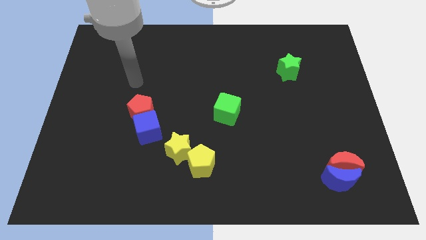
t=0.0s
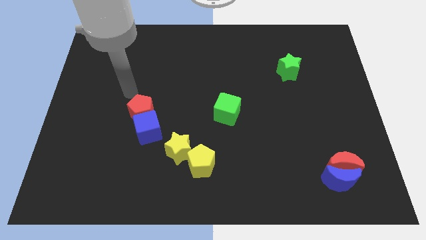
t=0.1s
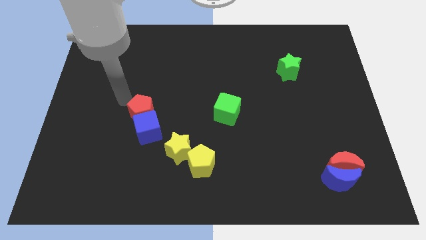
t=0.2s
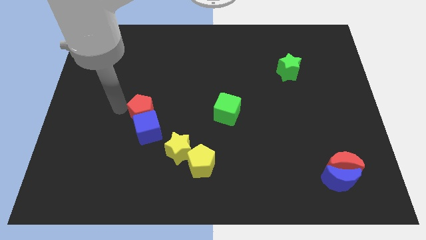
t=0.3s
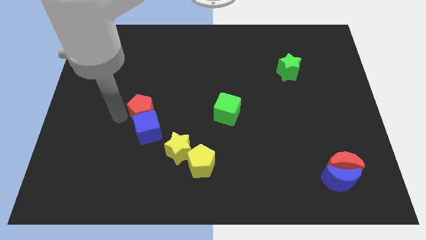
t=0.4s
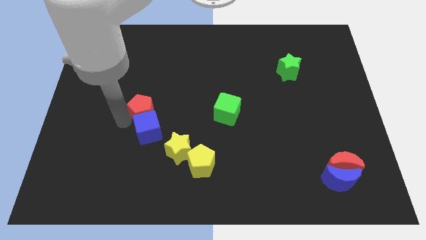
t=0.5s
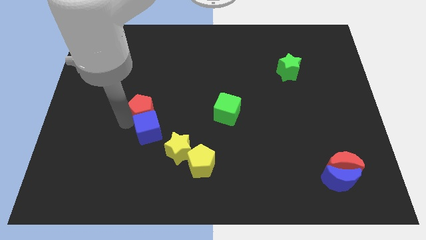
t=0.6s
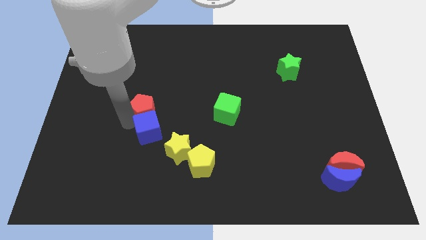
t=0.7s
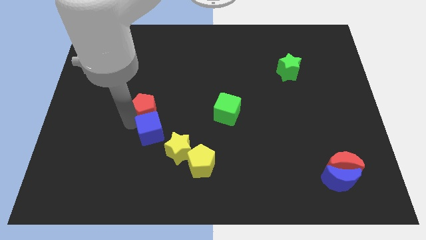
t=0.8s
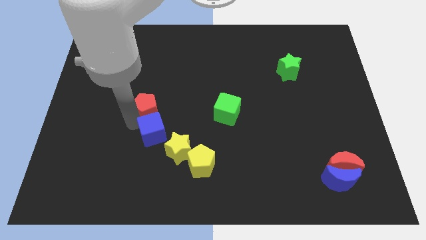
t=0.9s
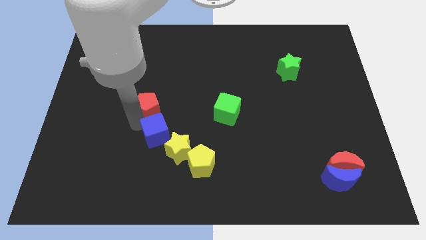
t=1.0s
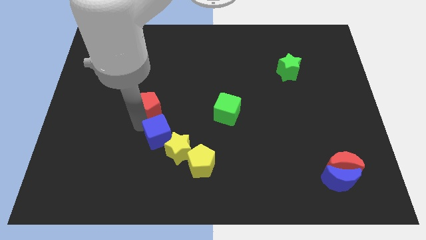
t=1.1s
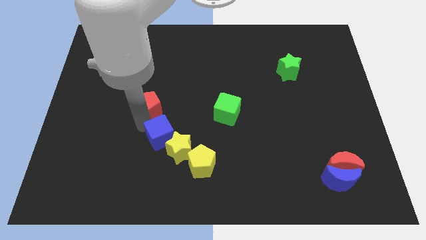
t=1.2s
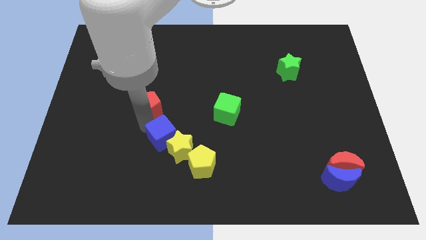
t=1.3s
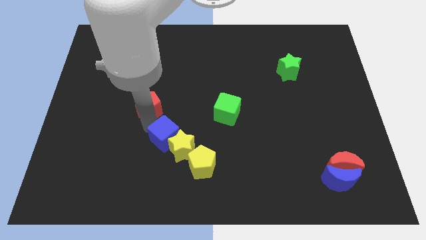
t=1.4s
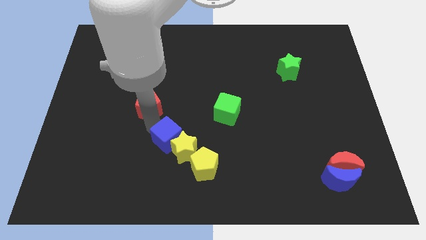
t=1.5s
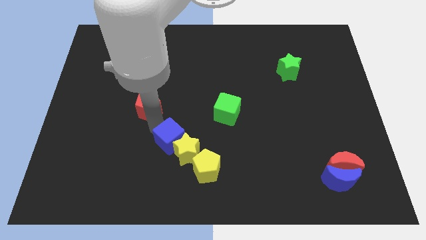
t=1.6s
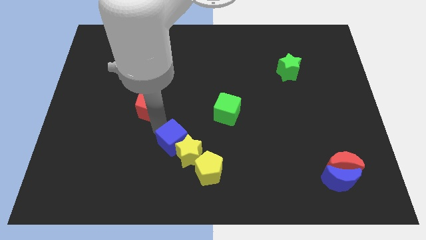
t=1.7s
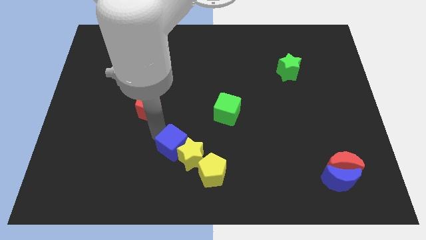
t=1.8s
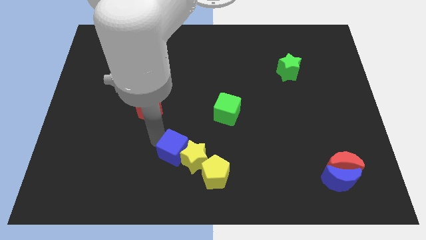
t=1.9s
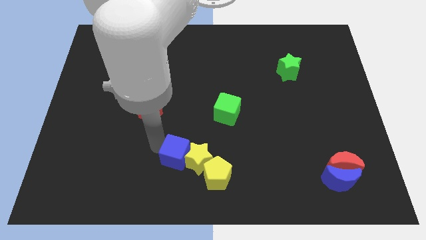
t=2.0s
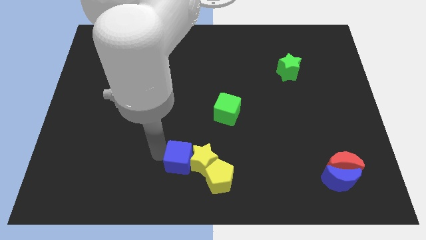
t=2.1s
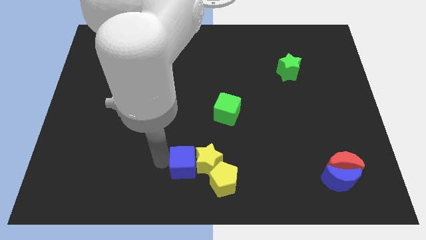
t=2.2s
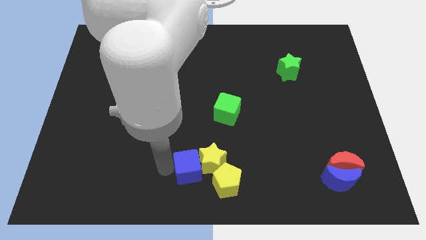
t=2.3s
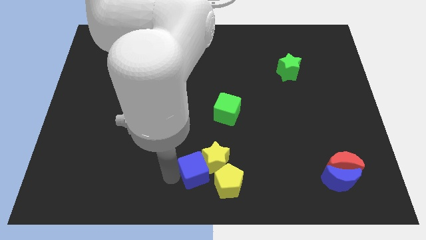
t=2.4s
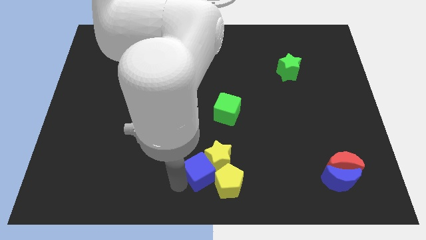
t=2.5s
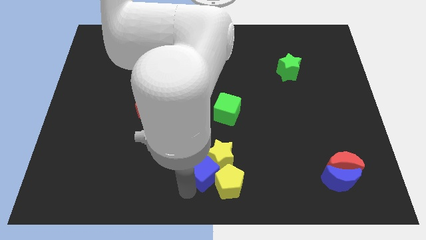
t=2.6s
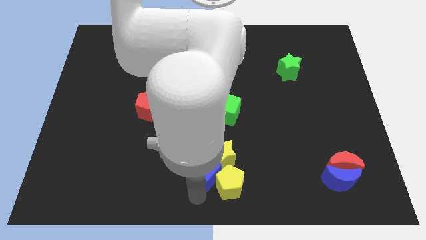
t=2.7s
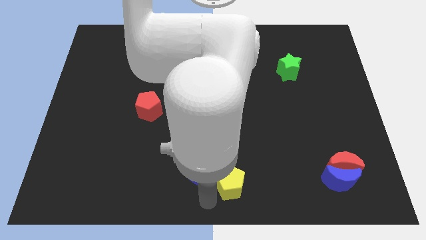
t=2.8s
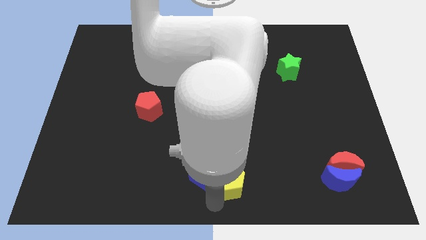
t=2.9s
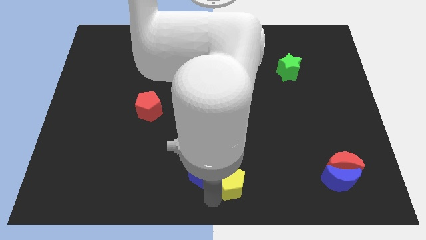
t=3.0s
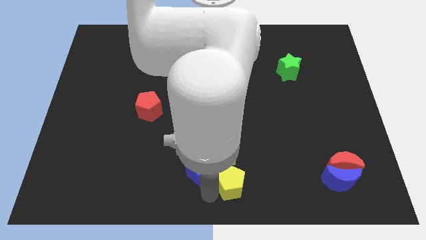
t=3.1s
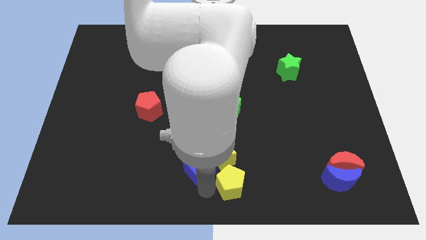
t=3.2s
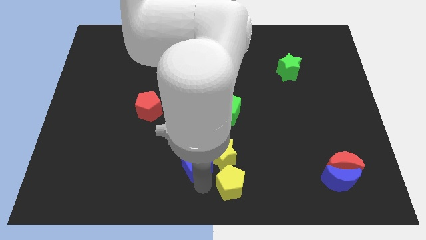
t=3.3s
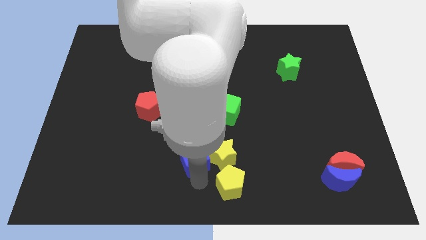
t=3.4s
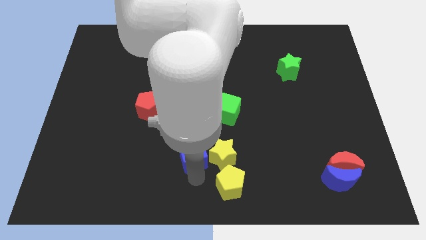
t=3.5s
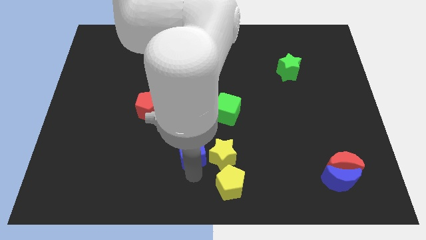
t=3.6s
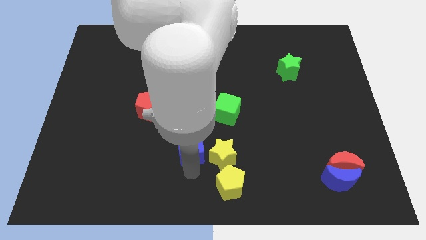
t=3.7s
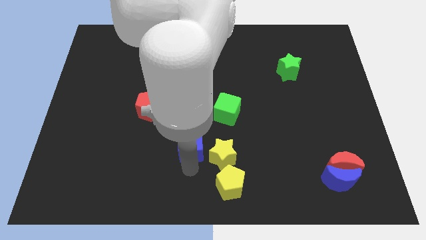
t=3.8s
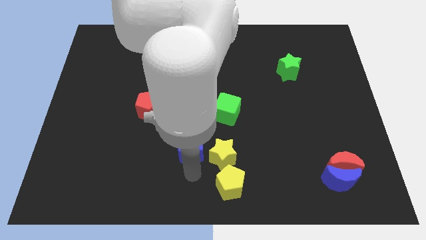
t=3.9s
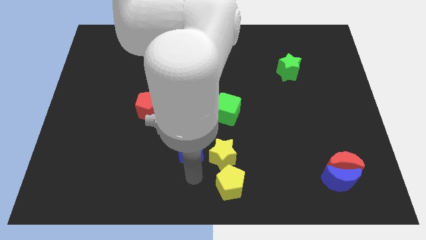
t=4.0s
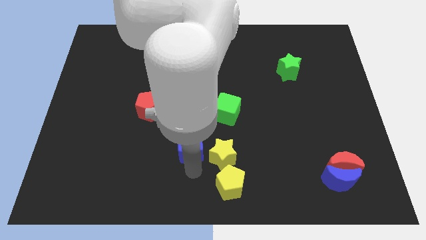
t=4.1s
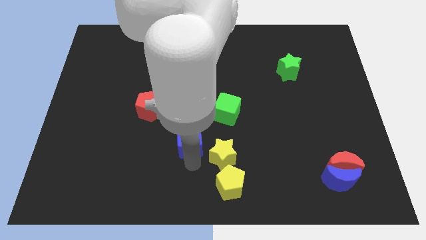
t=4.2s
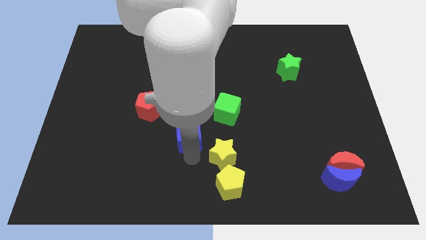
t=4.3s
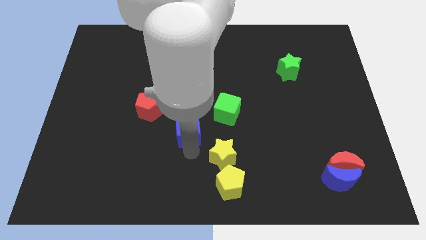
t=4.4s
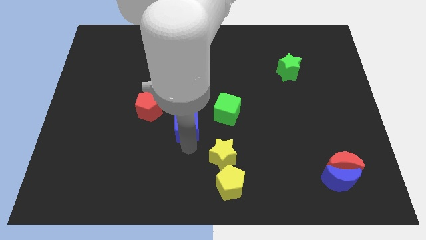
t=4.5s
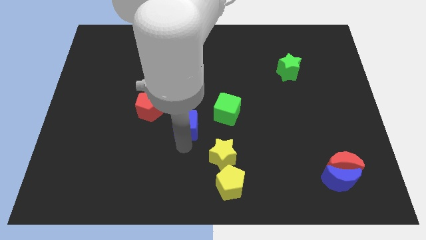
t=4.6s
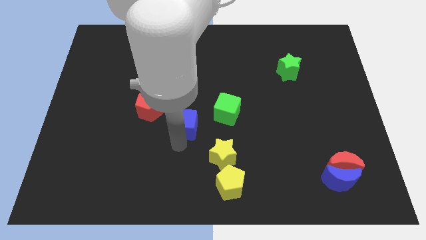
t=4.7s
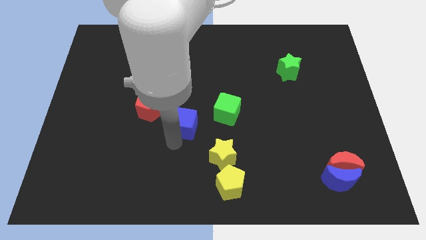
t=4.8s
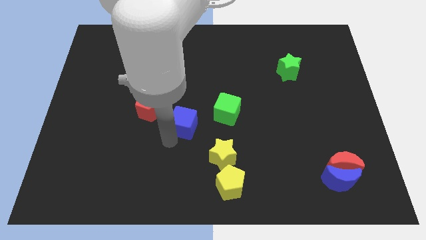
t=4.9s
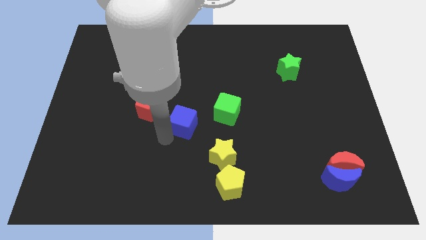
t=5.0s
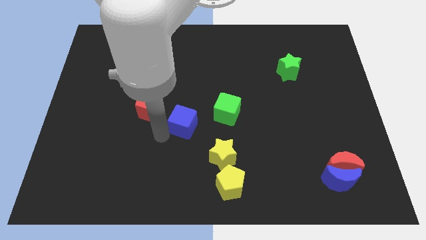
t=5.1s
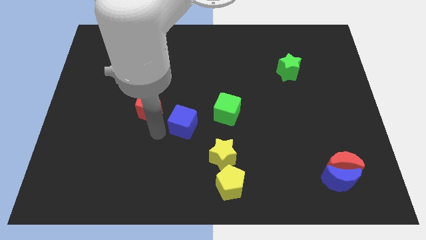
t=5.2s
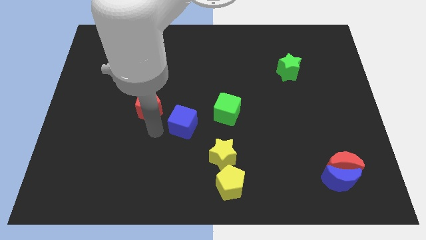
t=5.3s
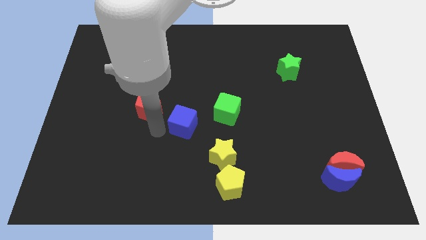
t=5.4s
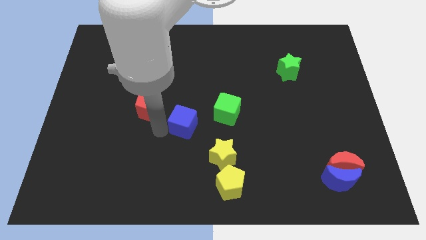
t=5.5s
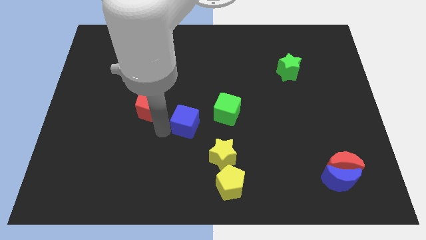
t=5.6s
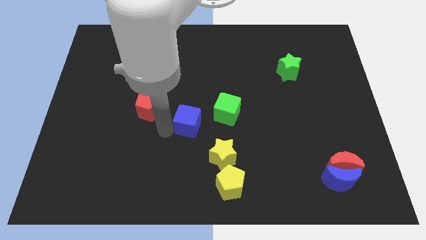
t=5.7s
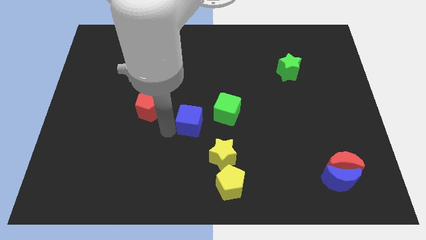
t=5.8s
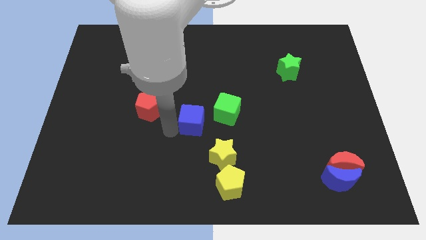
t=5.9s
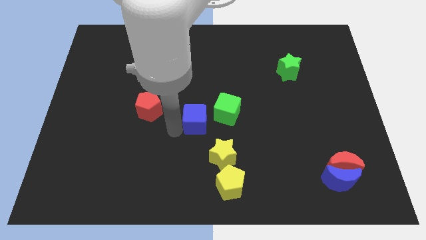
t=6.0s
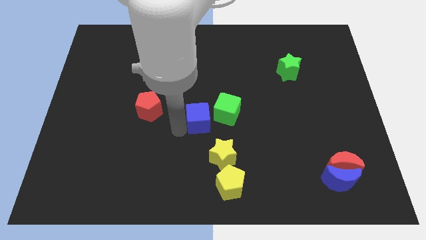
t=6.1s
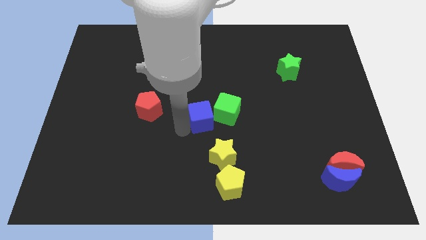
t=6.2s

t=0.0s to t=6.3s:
move the blue cube towards the green cube

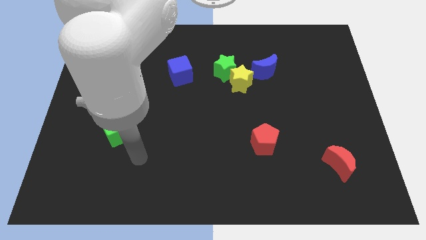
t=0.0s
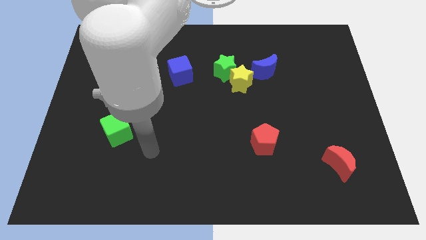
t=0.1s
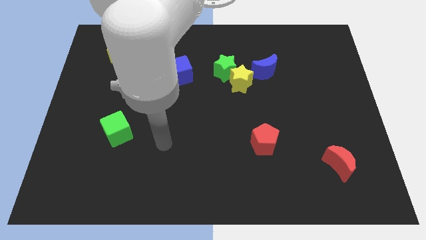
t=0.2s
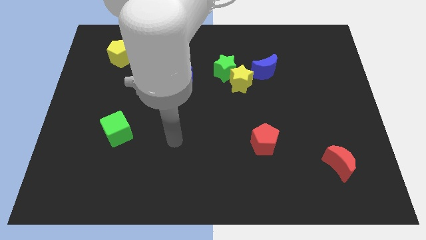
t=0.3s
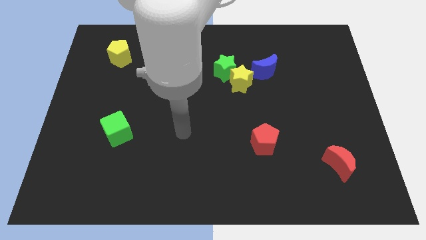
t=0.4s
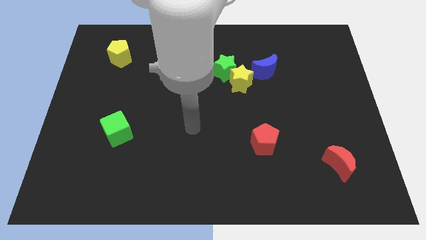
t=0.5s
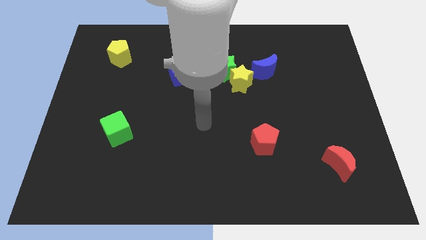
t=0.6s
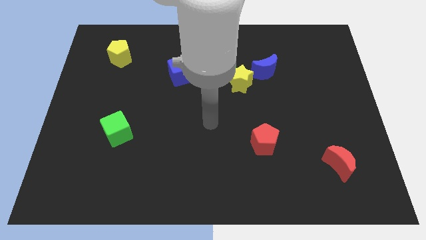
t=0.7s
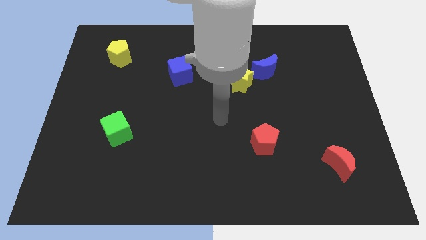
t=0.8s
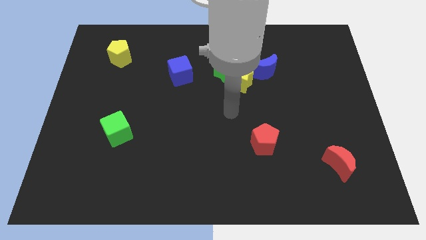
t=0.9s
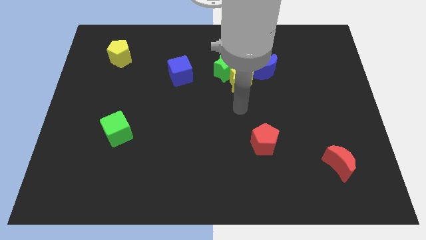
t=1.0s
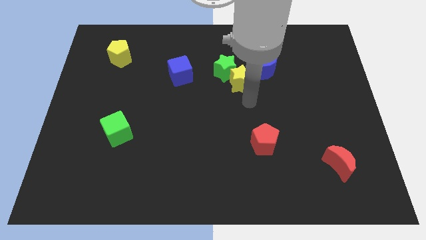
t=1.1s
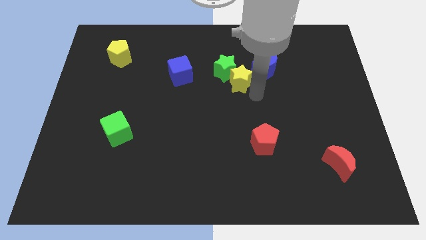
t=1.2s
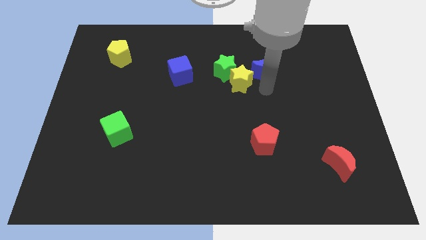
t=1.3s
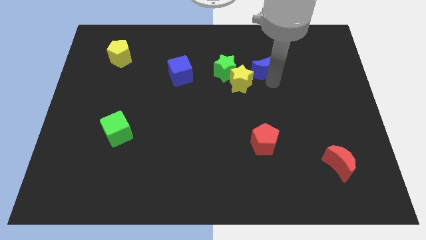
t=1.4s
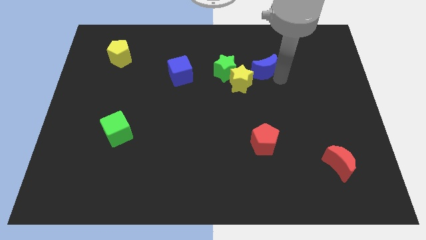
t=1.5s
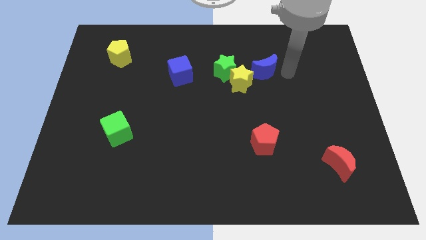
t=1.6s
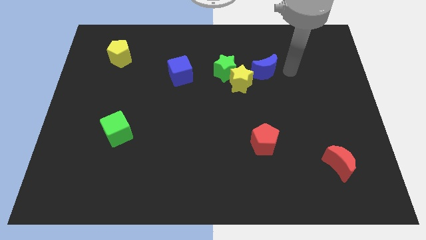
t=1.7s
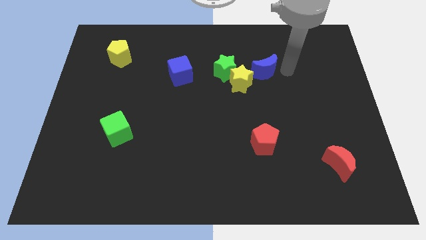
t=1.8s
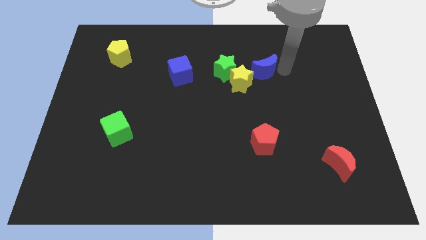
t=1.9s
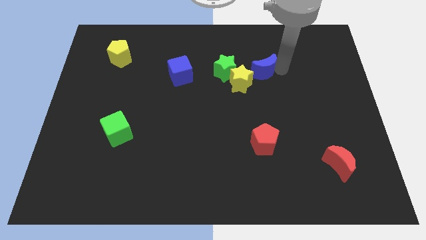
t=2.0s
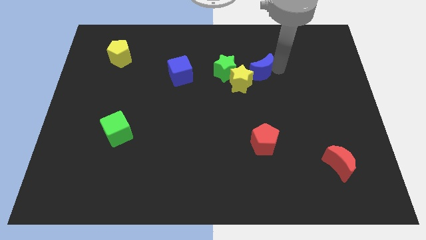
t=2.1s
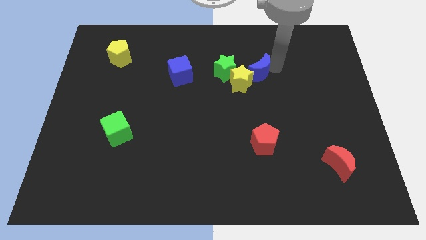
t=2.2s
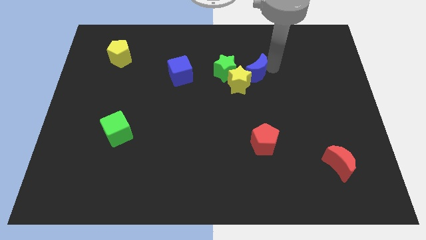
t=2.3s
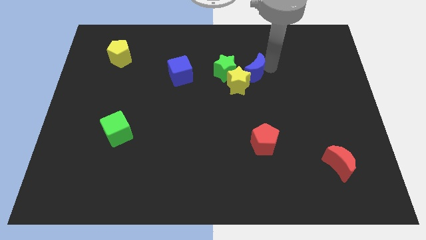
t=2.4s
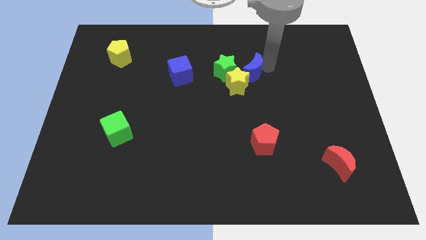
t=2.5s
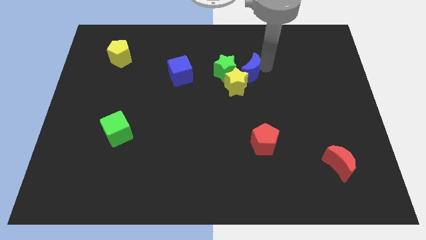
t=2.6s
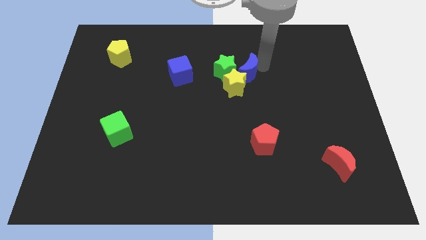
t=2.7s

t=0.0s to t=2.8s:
put the blue moon next to the green star
